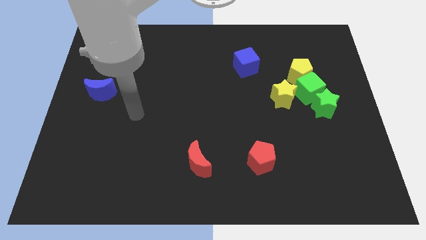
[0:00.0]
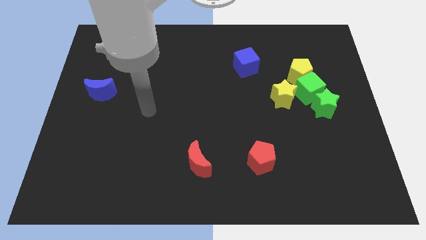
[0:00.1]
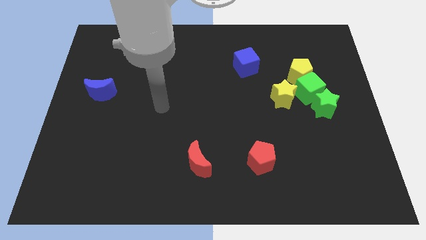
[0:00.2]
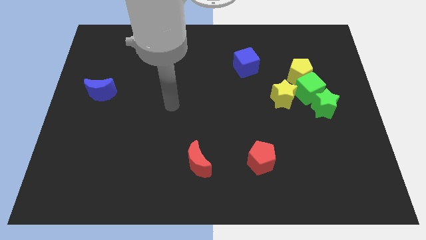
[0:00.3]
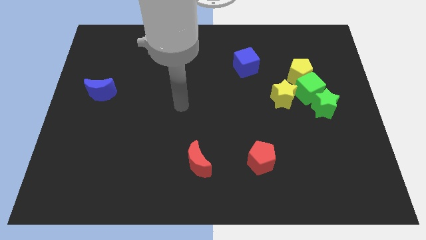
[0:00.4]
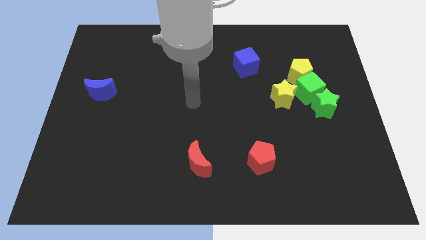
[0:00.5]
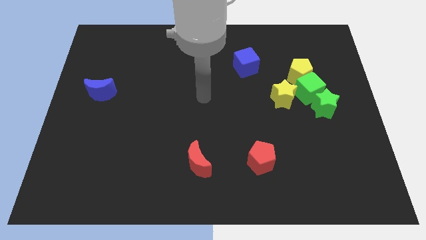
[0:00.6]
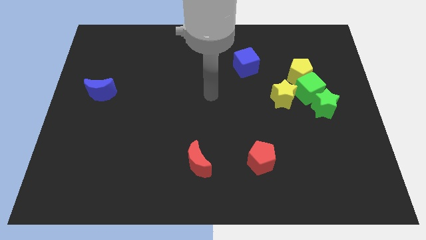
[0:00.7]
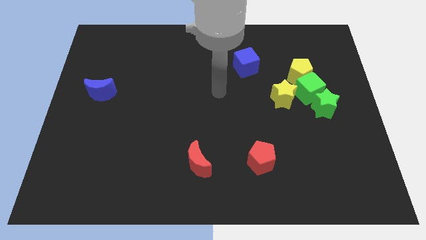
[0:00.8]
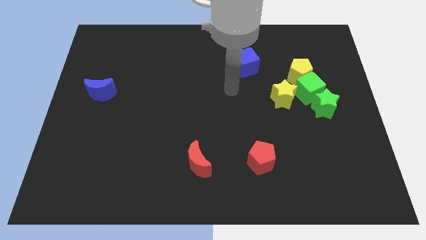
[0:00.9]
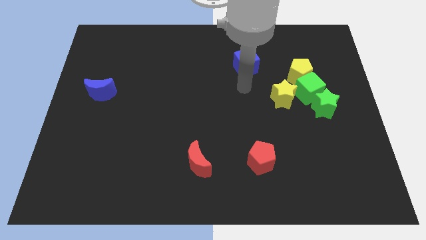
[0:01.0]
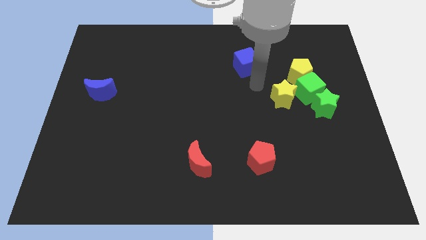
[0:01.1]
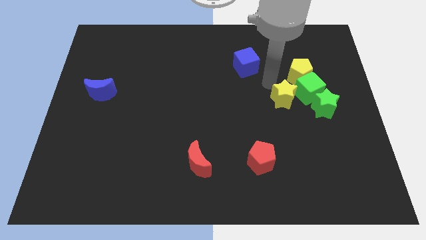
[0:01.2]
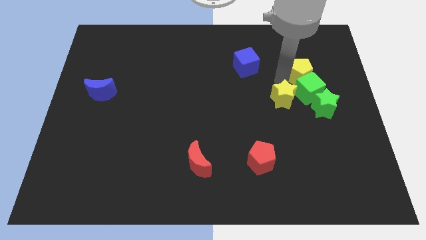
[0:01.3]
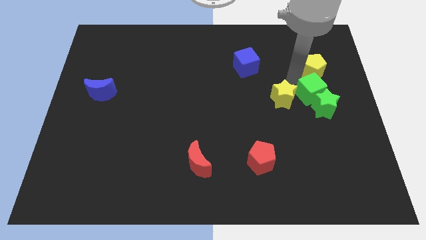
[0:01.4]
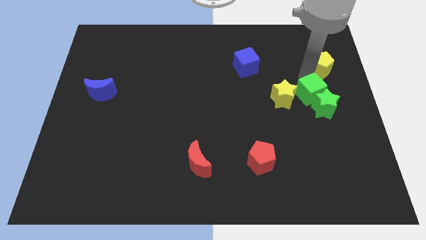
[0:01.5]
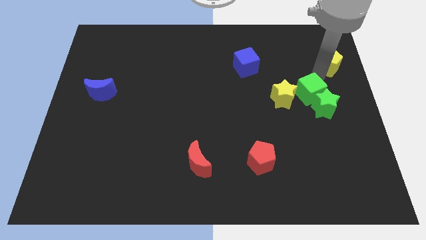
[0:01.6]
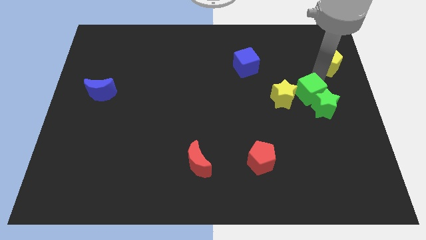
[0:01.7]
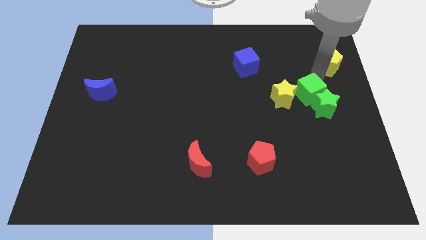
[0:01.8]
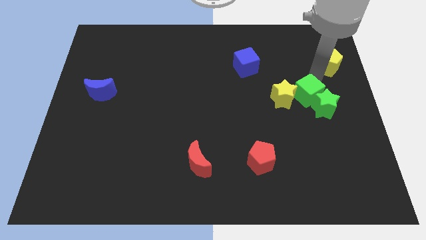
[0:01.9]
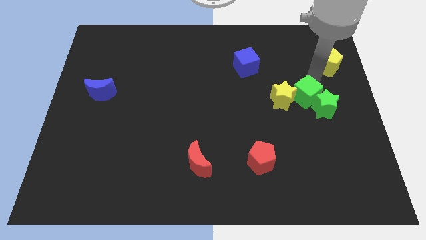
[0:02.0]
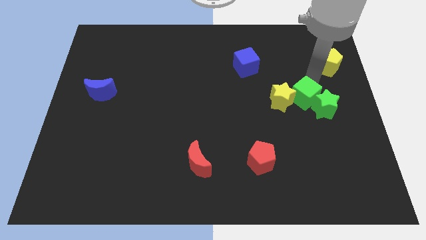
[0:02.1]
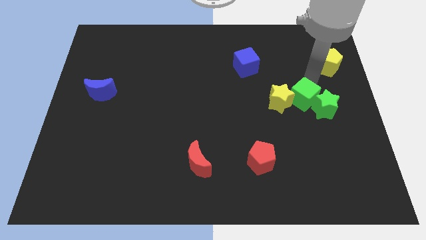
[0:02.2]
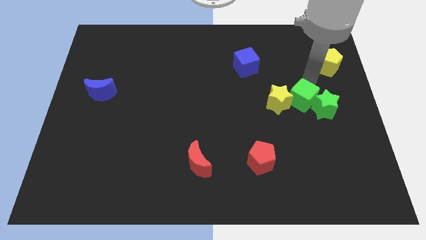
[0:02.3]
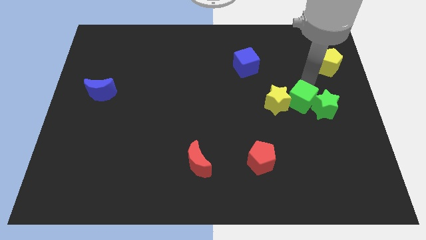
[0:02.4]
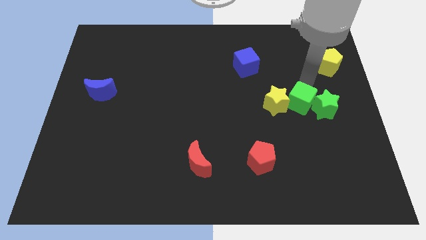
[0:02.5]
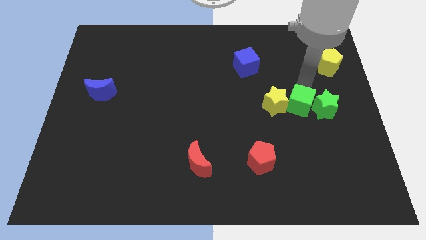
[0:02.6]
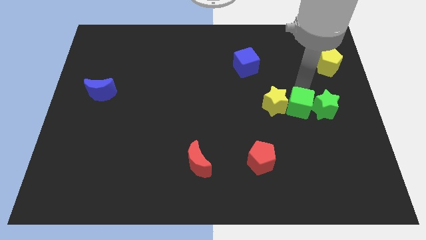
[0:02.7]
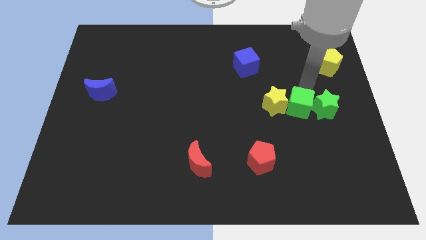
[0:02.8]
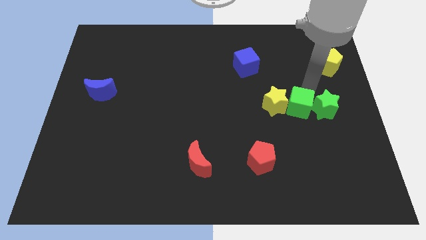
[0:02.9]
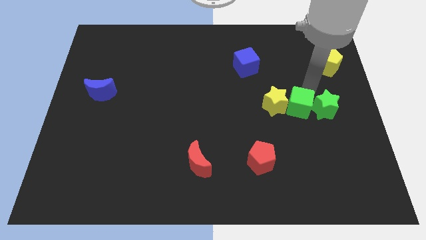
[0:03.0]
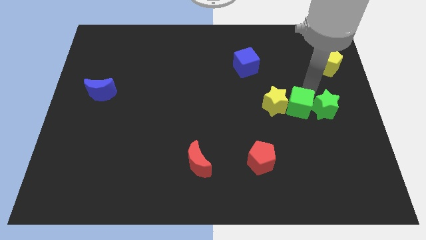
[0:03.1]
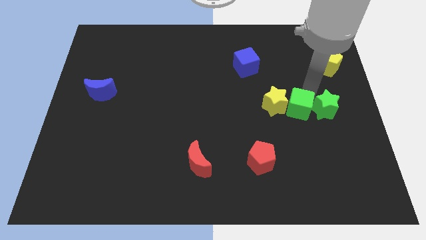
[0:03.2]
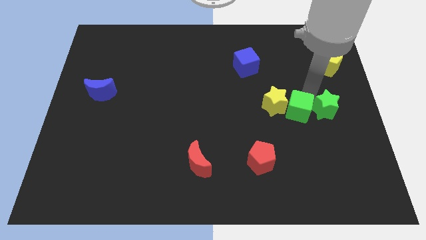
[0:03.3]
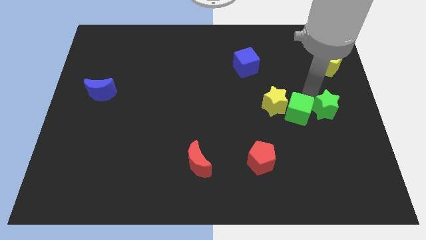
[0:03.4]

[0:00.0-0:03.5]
slightly push the green cube down and left diagonally

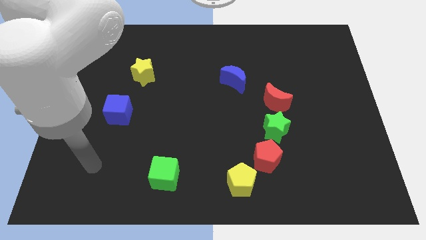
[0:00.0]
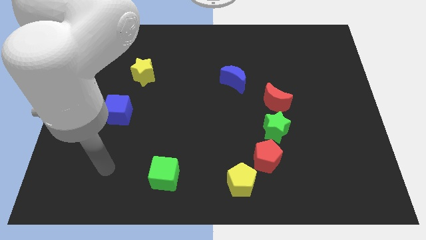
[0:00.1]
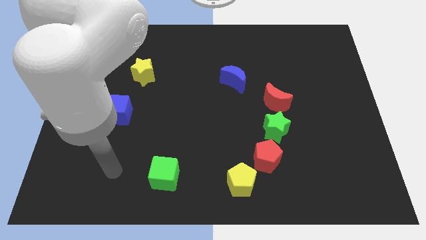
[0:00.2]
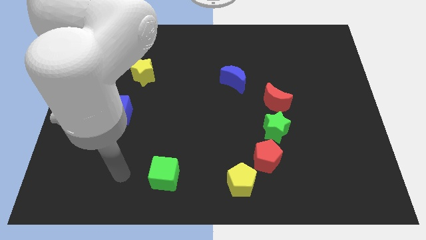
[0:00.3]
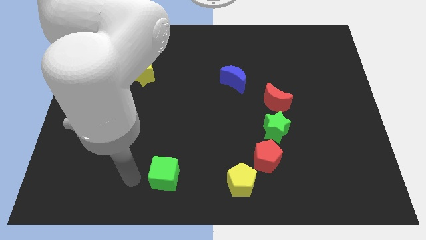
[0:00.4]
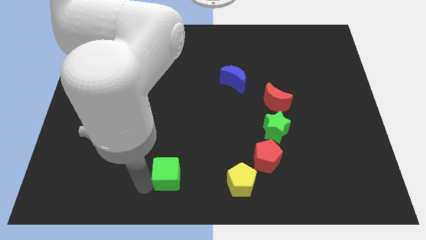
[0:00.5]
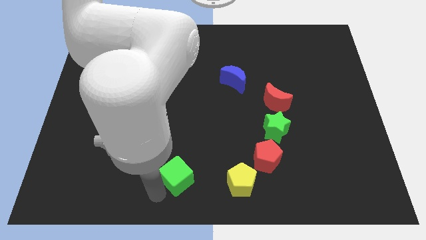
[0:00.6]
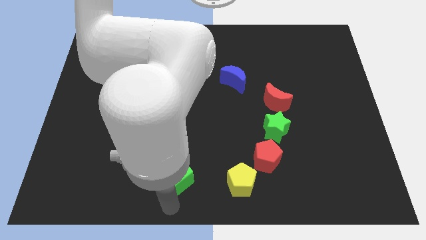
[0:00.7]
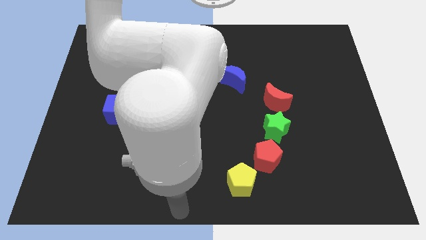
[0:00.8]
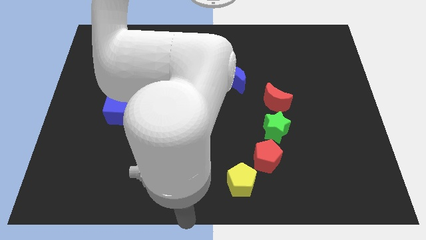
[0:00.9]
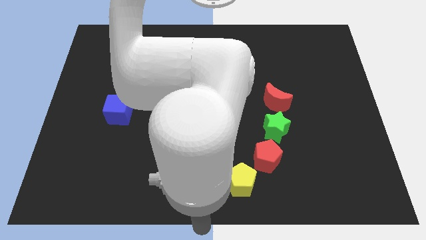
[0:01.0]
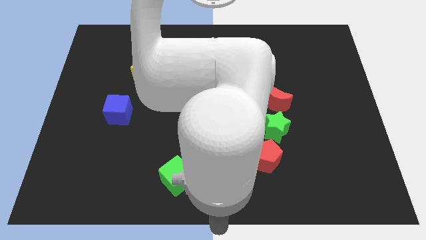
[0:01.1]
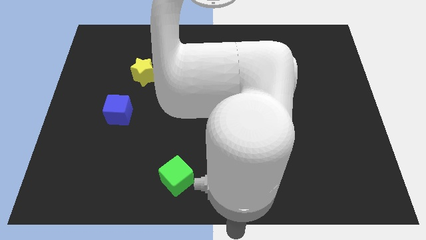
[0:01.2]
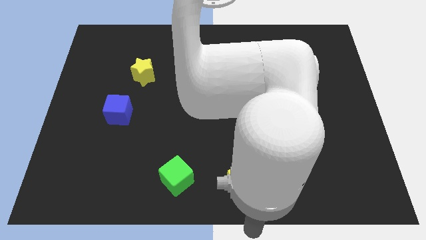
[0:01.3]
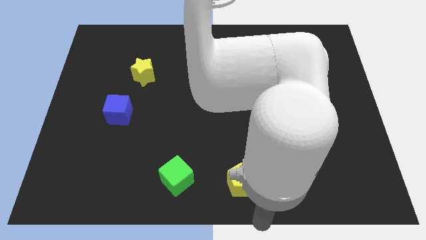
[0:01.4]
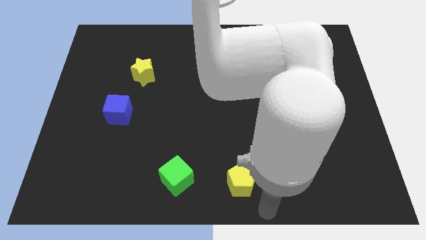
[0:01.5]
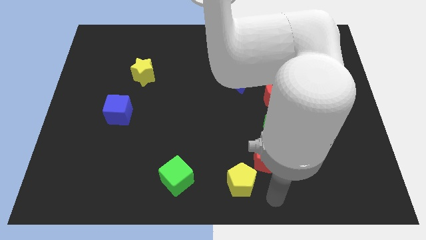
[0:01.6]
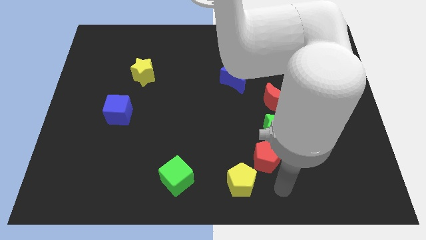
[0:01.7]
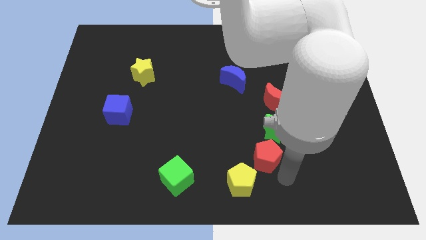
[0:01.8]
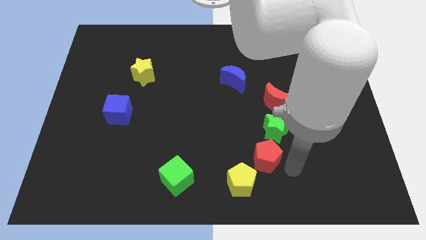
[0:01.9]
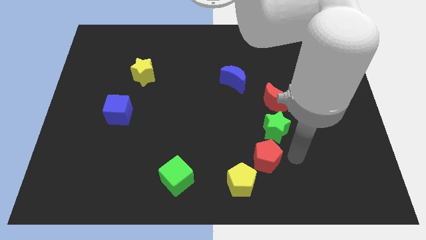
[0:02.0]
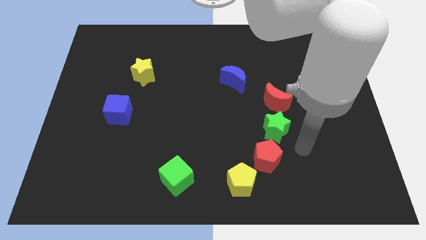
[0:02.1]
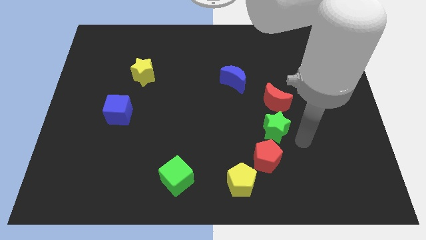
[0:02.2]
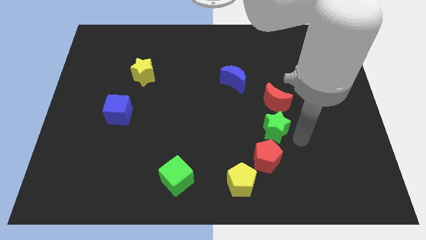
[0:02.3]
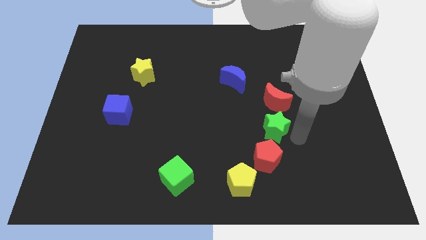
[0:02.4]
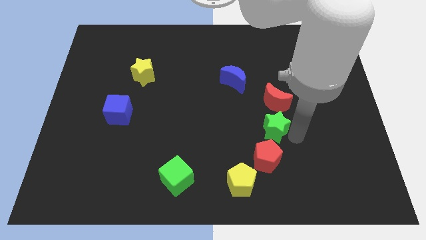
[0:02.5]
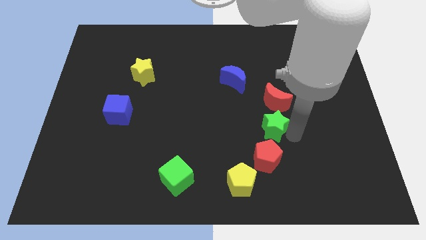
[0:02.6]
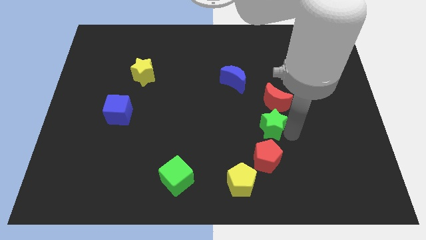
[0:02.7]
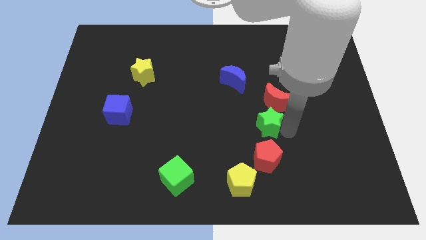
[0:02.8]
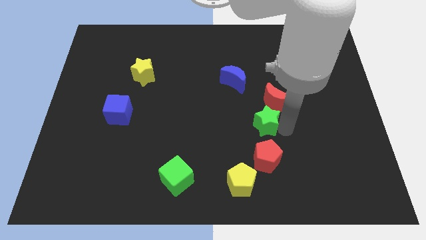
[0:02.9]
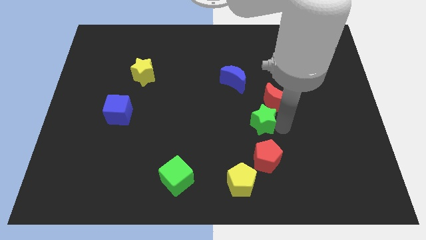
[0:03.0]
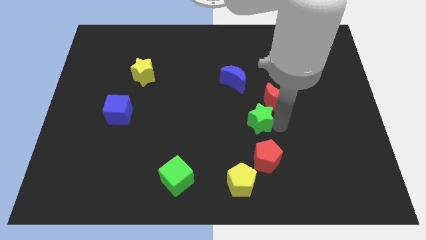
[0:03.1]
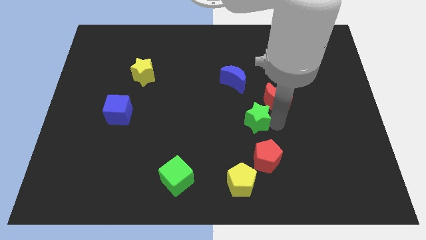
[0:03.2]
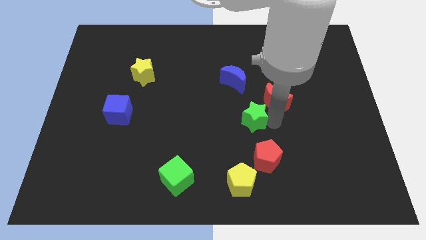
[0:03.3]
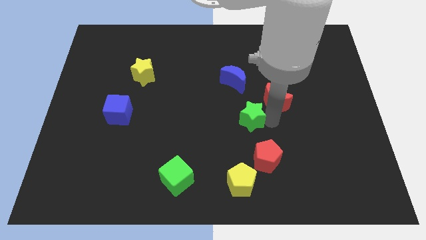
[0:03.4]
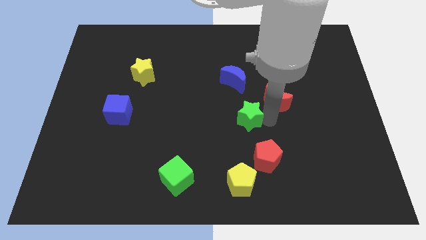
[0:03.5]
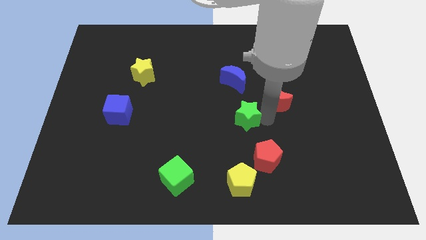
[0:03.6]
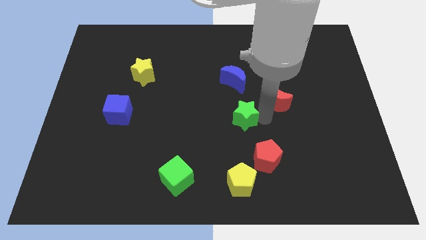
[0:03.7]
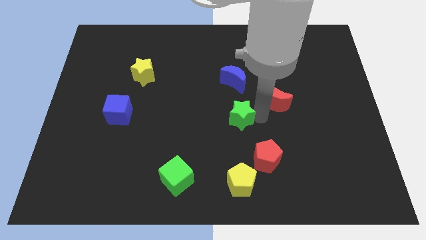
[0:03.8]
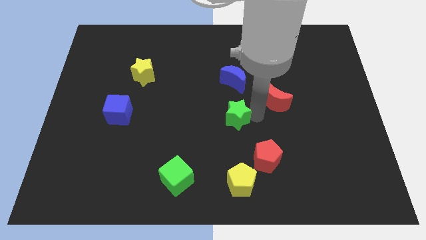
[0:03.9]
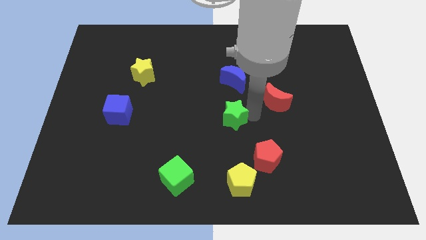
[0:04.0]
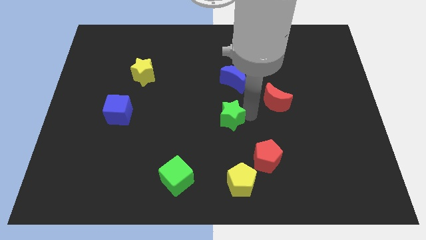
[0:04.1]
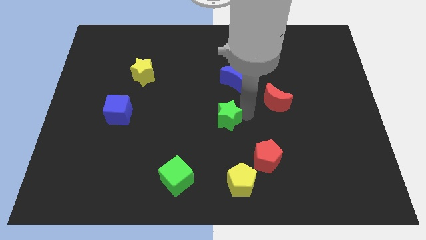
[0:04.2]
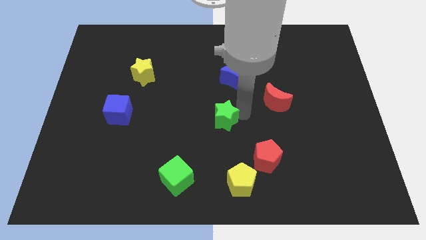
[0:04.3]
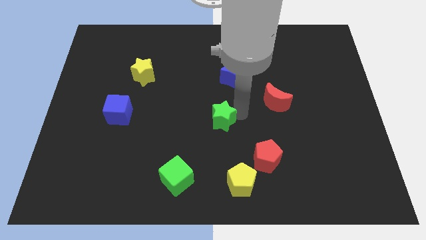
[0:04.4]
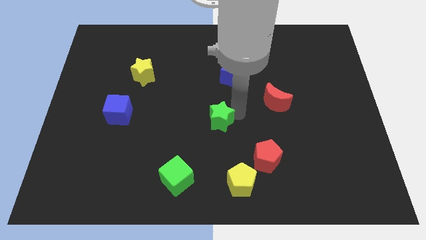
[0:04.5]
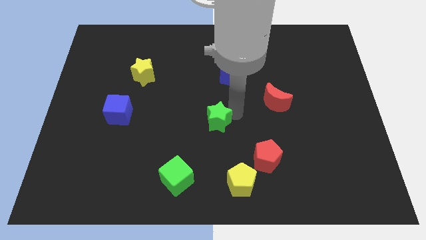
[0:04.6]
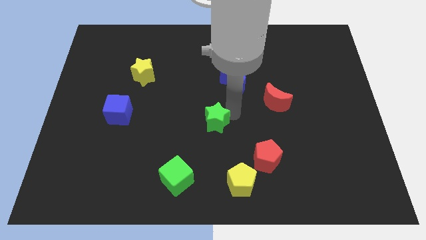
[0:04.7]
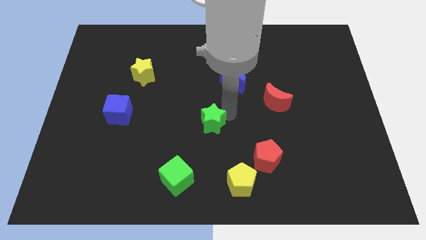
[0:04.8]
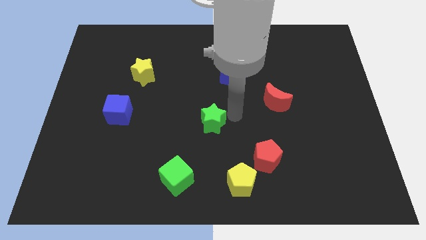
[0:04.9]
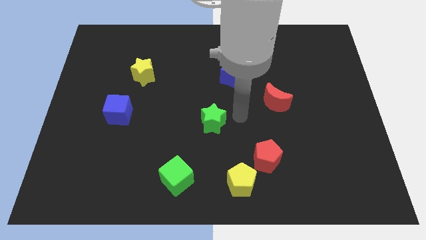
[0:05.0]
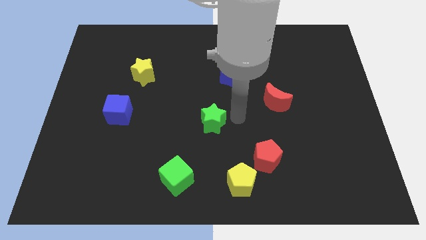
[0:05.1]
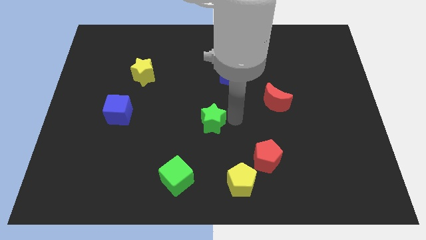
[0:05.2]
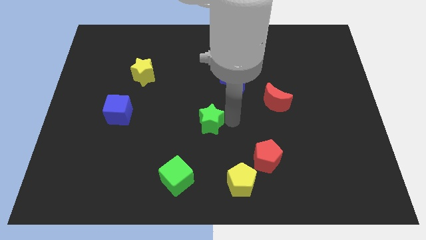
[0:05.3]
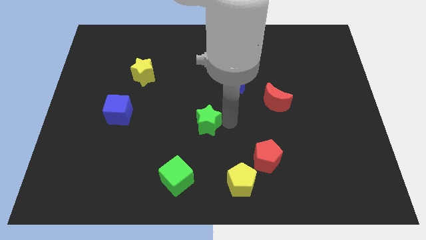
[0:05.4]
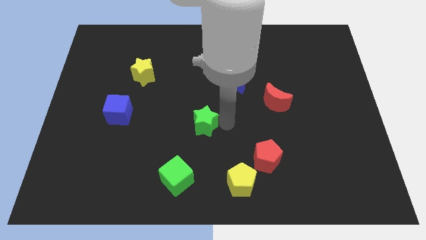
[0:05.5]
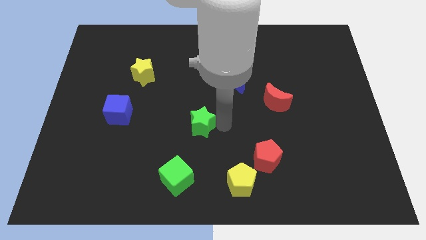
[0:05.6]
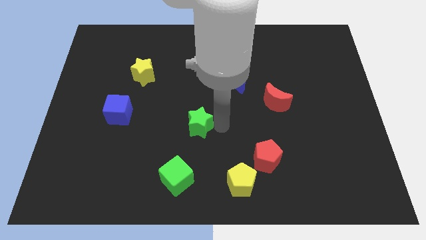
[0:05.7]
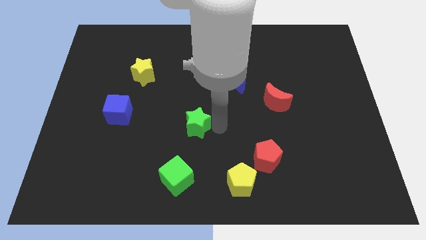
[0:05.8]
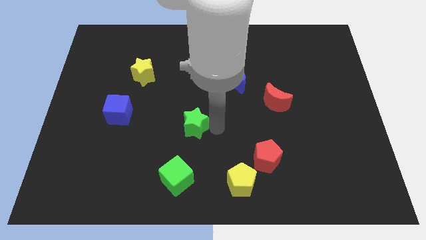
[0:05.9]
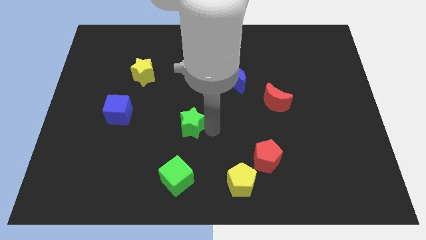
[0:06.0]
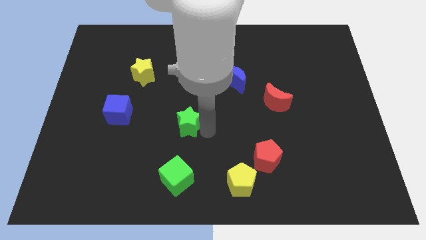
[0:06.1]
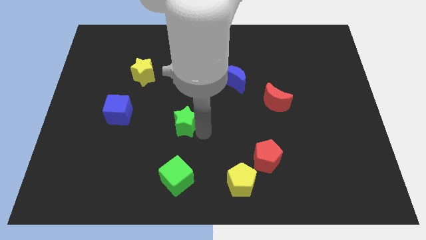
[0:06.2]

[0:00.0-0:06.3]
move the green star left
